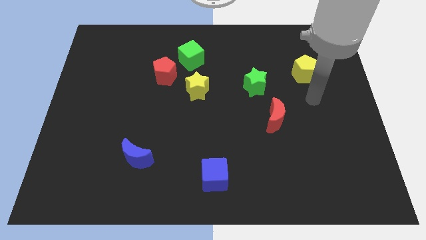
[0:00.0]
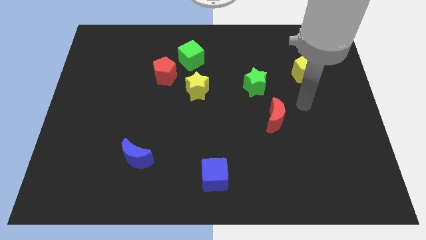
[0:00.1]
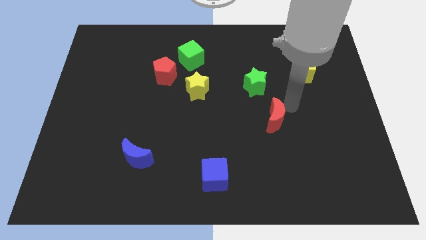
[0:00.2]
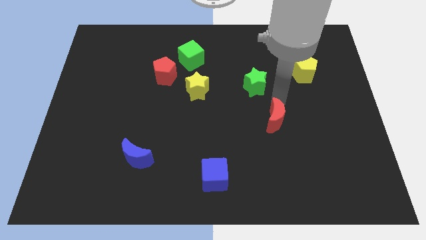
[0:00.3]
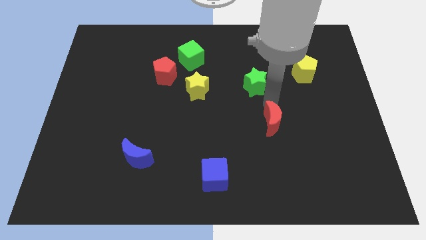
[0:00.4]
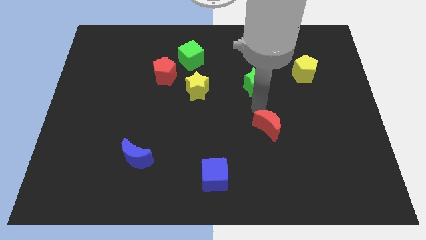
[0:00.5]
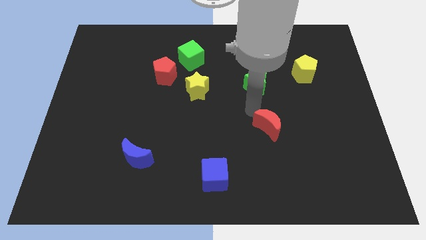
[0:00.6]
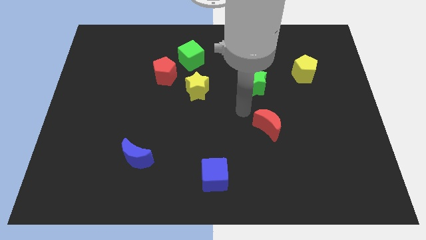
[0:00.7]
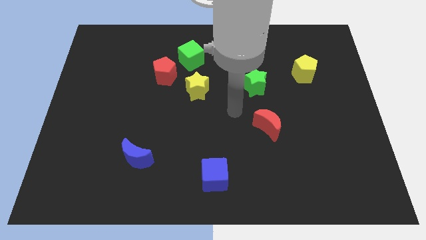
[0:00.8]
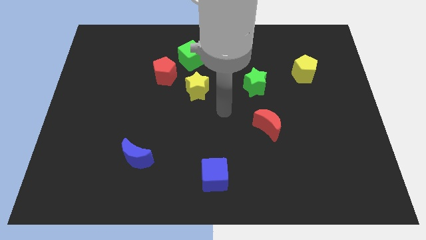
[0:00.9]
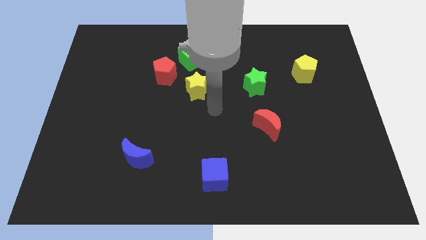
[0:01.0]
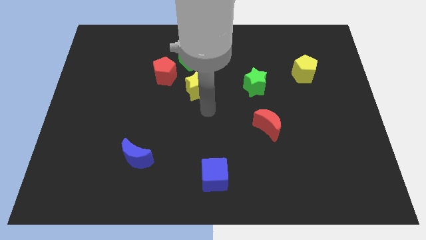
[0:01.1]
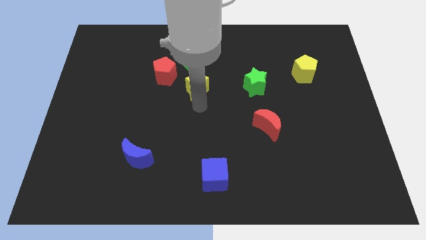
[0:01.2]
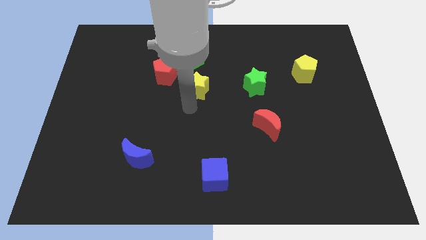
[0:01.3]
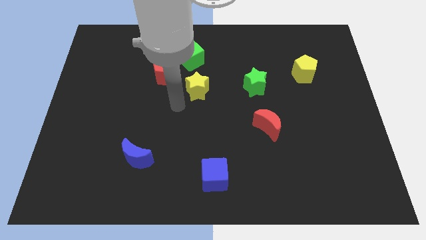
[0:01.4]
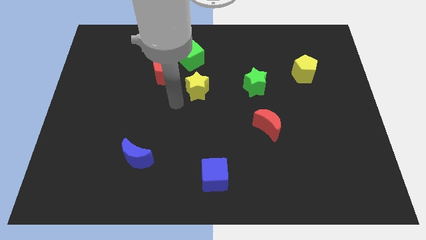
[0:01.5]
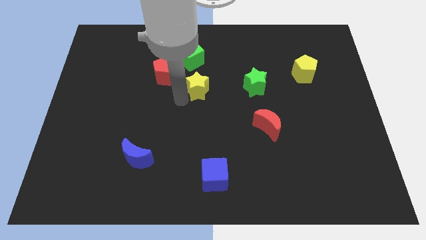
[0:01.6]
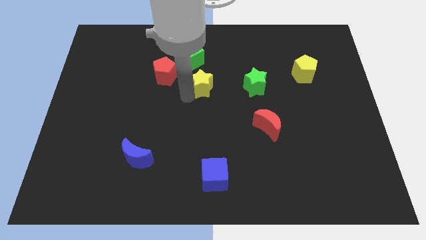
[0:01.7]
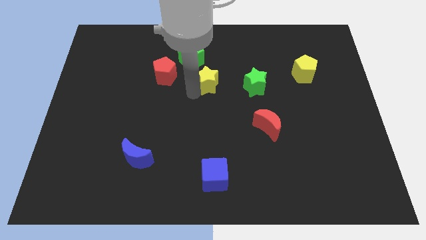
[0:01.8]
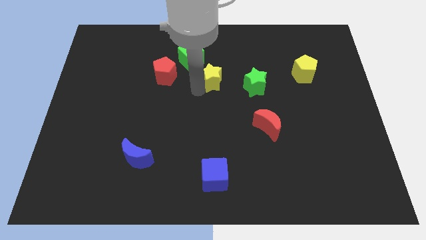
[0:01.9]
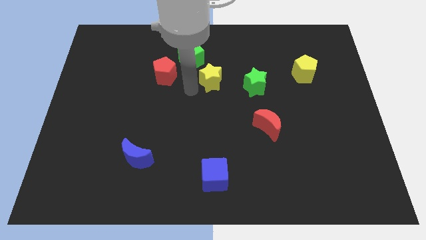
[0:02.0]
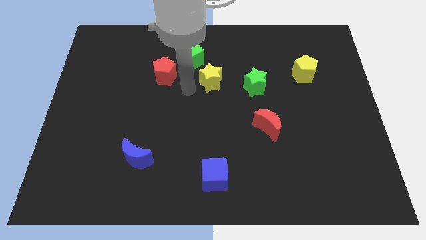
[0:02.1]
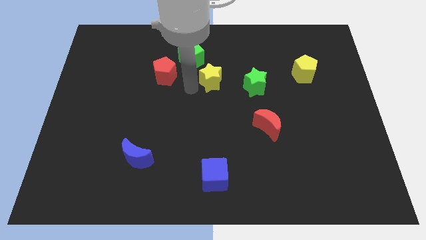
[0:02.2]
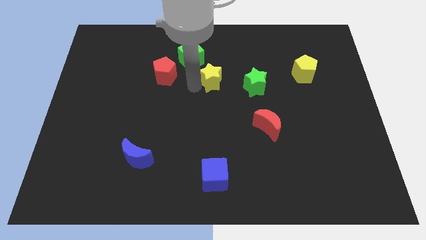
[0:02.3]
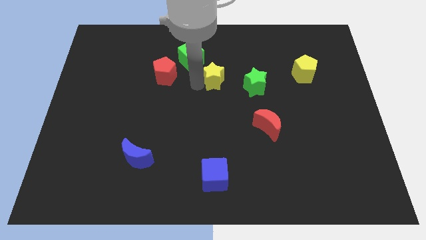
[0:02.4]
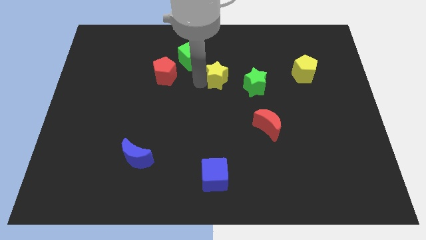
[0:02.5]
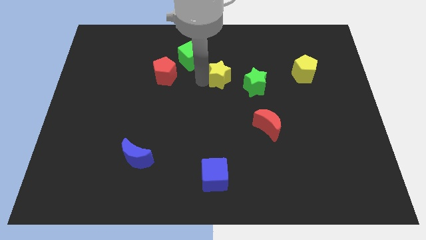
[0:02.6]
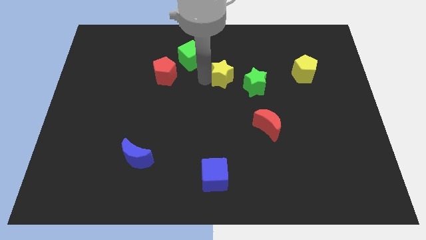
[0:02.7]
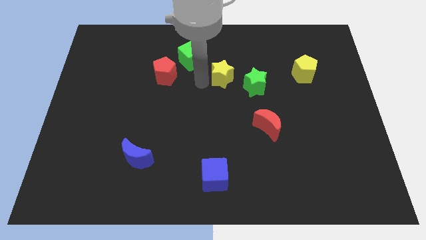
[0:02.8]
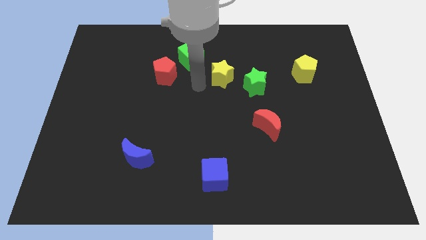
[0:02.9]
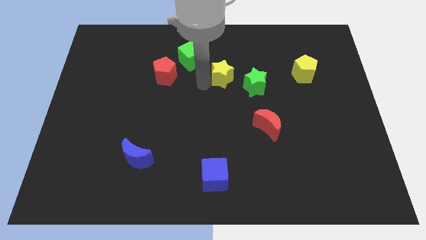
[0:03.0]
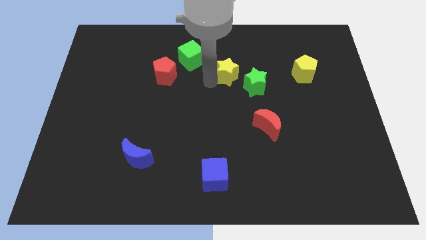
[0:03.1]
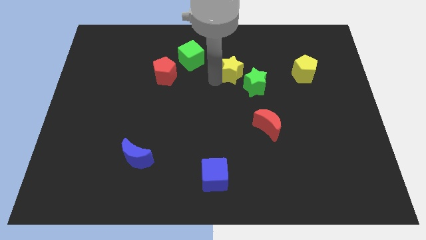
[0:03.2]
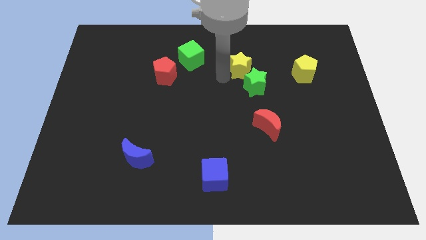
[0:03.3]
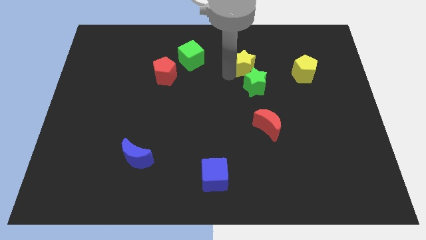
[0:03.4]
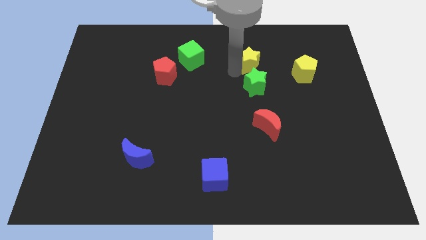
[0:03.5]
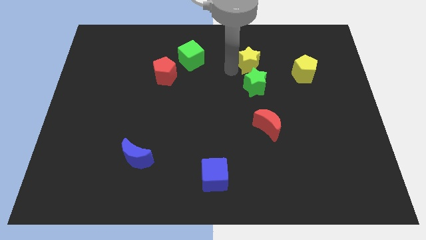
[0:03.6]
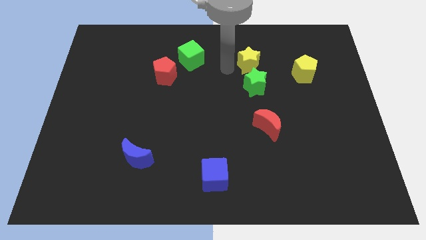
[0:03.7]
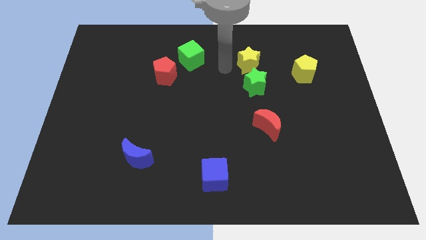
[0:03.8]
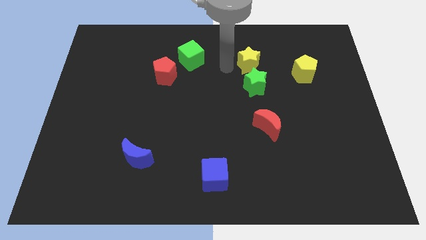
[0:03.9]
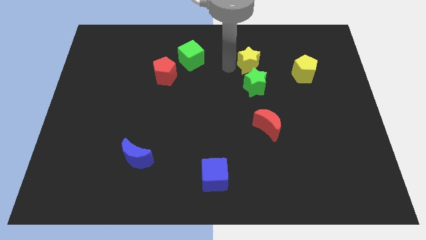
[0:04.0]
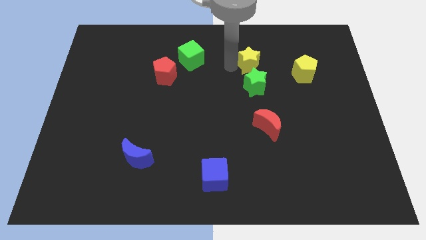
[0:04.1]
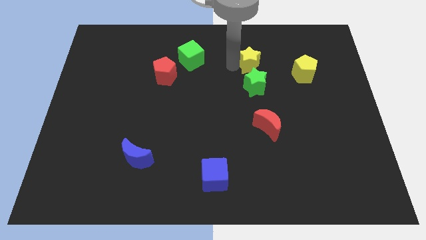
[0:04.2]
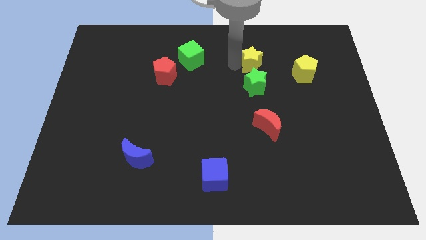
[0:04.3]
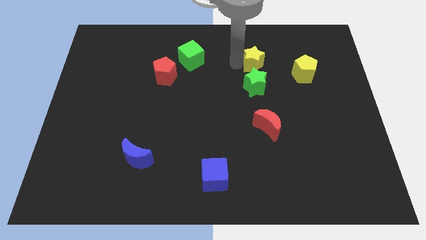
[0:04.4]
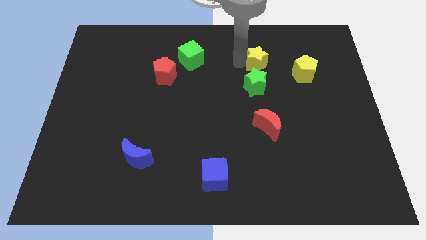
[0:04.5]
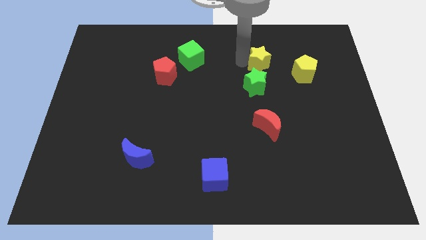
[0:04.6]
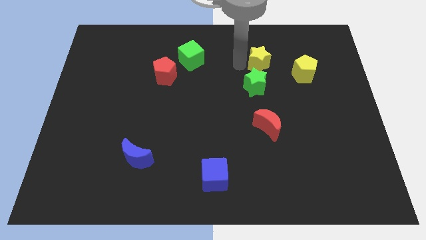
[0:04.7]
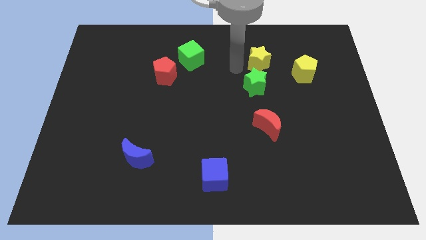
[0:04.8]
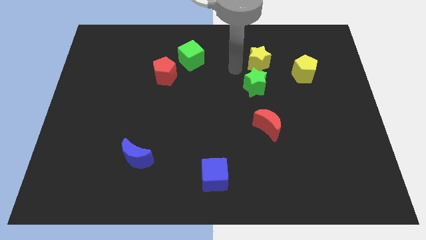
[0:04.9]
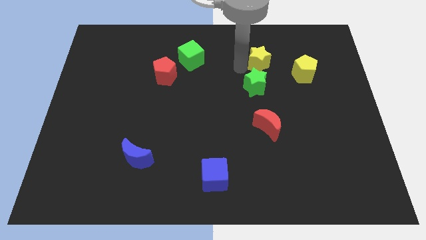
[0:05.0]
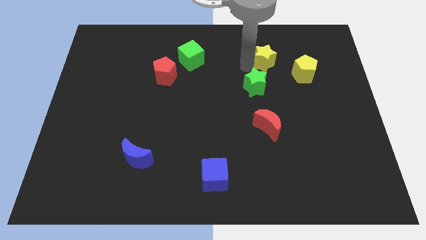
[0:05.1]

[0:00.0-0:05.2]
put the yellow star diagonally up and to the left of the yellow pentagon

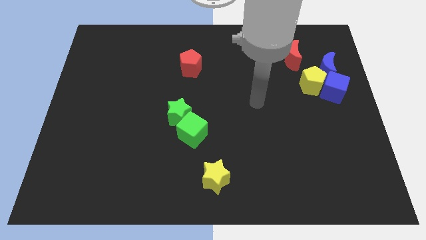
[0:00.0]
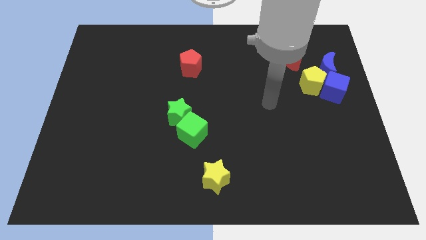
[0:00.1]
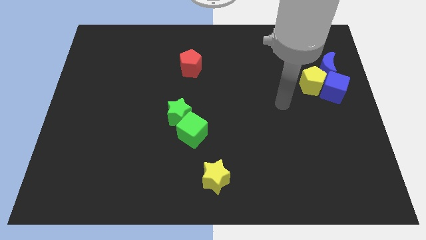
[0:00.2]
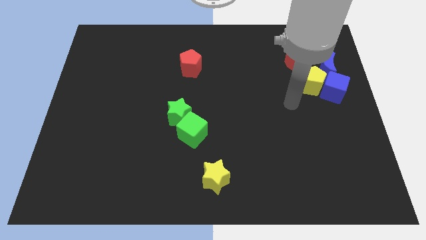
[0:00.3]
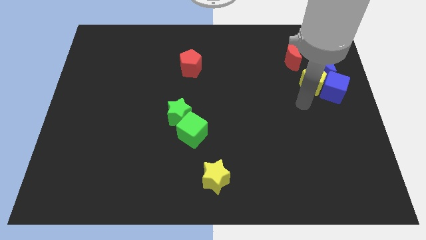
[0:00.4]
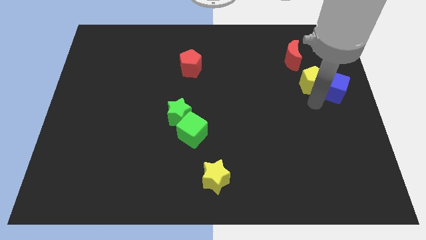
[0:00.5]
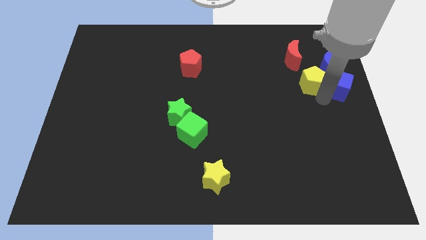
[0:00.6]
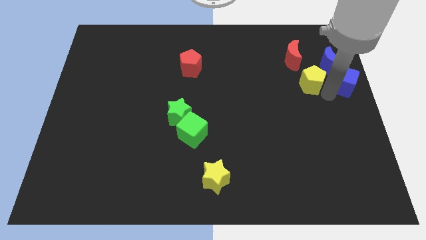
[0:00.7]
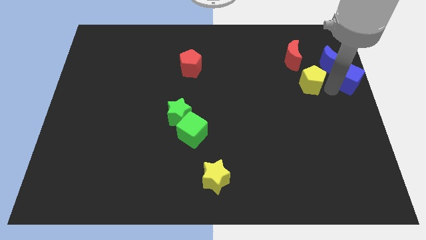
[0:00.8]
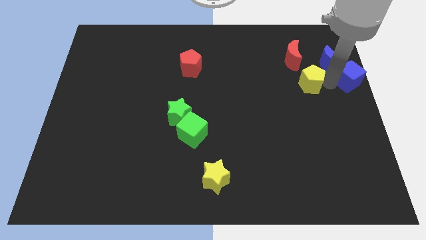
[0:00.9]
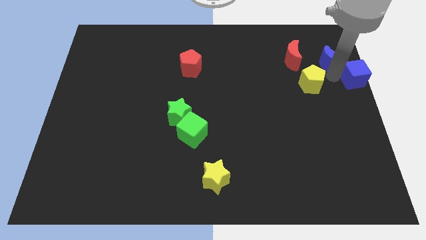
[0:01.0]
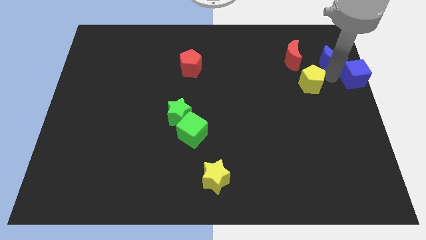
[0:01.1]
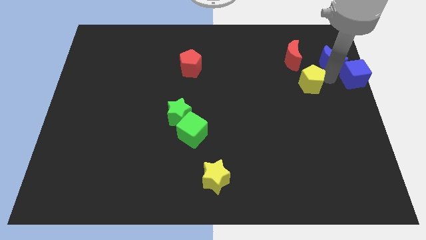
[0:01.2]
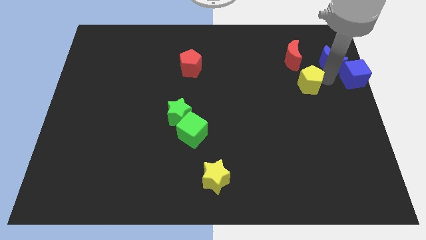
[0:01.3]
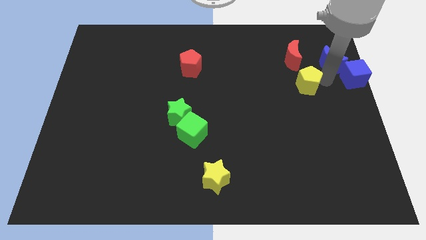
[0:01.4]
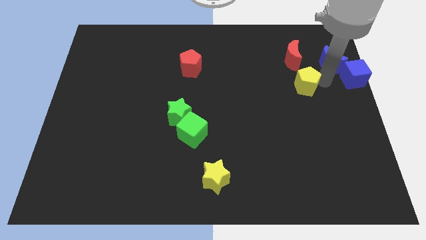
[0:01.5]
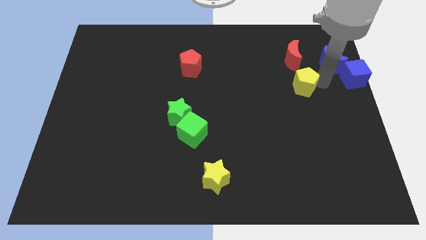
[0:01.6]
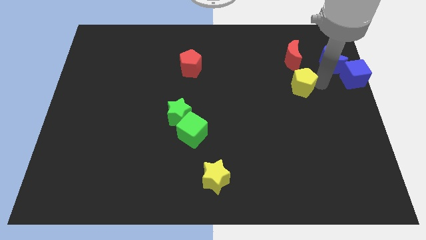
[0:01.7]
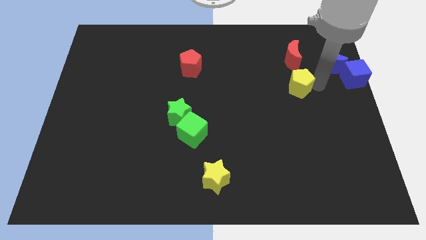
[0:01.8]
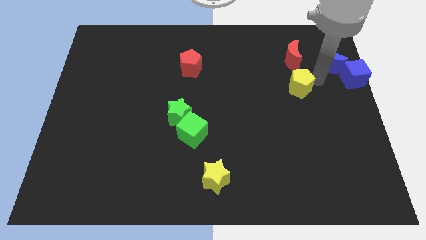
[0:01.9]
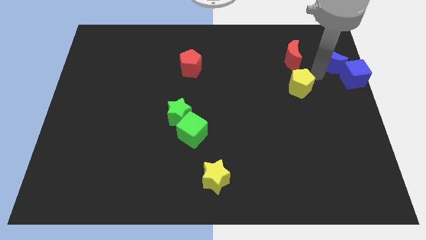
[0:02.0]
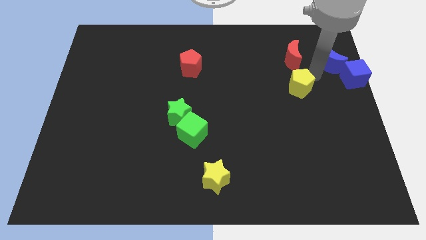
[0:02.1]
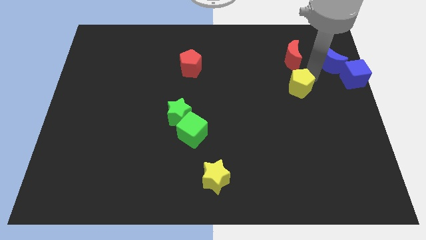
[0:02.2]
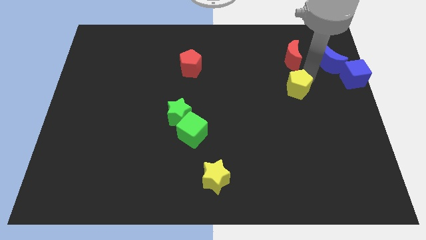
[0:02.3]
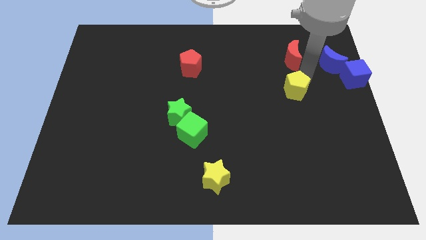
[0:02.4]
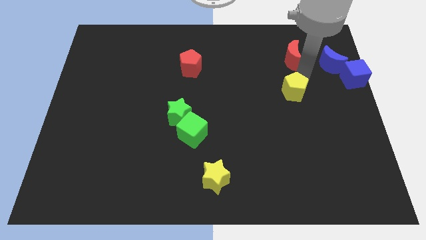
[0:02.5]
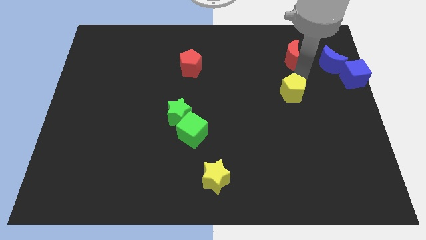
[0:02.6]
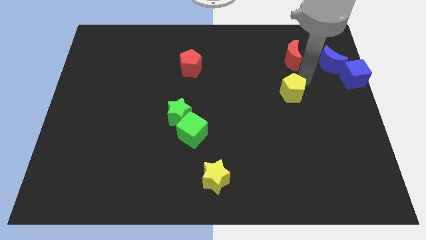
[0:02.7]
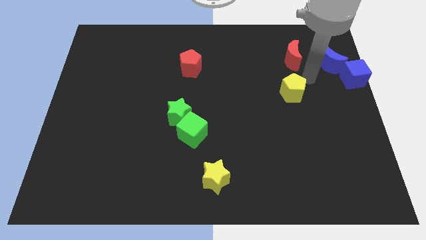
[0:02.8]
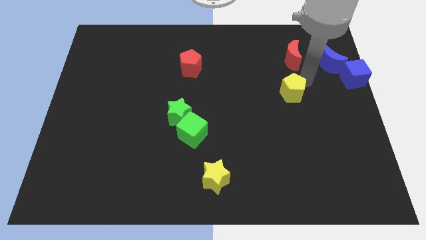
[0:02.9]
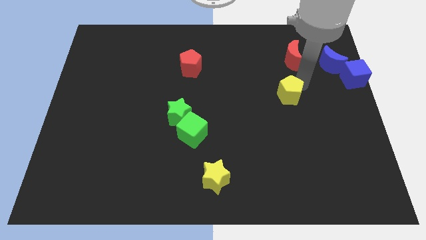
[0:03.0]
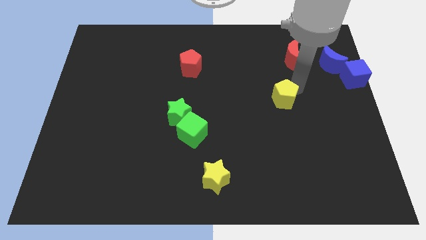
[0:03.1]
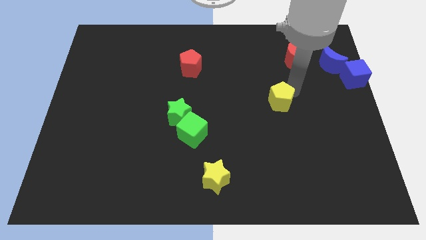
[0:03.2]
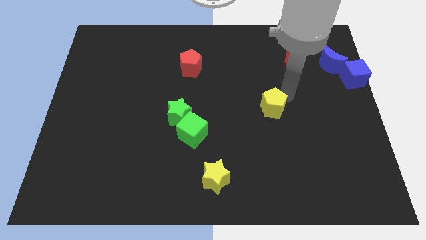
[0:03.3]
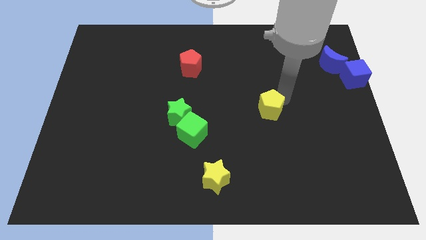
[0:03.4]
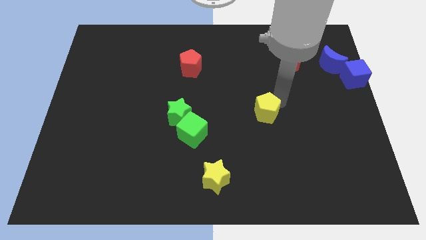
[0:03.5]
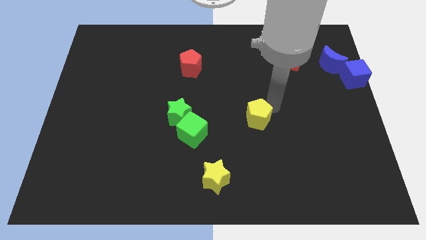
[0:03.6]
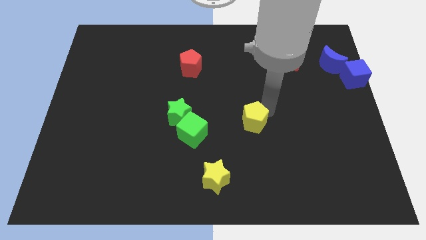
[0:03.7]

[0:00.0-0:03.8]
push the yellow pentagon just right of the green cube
